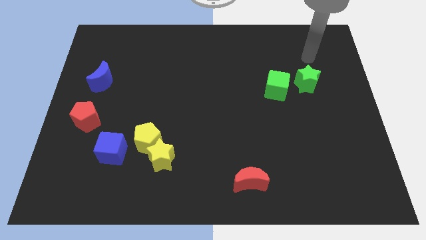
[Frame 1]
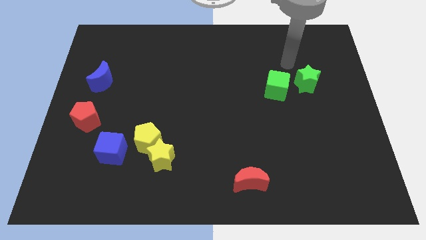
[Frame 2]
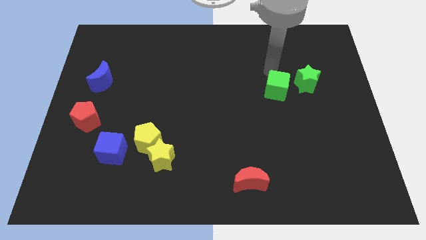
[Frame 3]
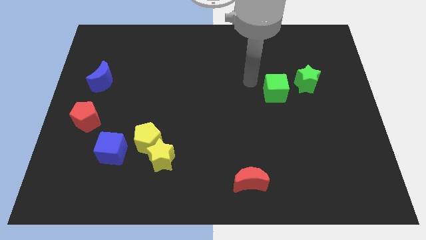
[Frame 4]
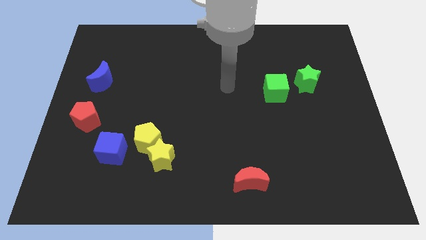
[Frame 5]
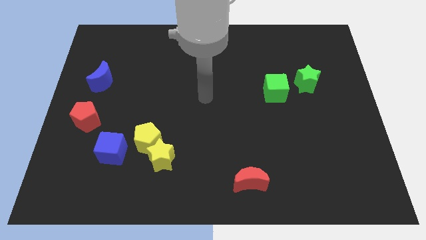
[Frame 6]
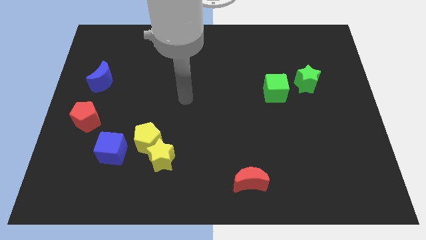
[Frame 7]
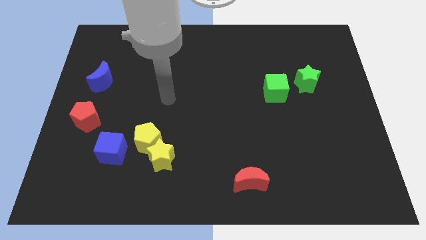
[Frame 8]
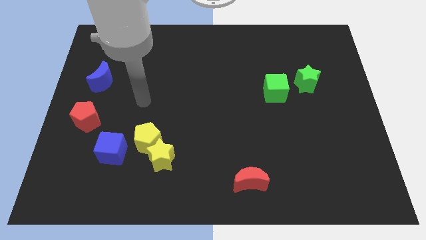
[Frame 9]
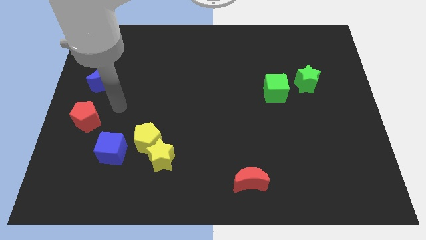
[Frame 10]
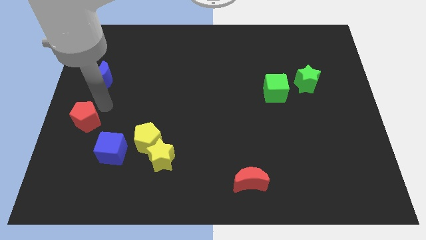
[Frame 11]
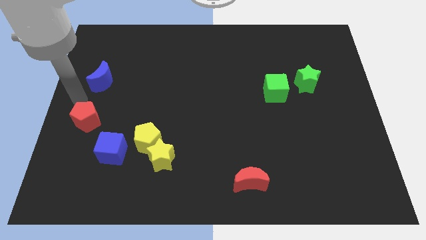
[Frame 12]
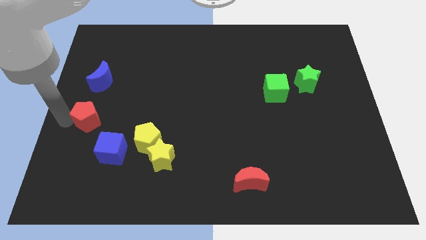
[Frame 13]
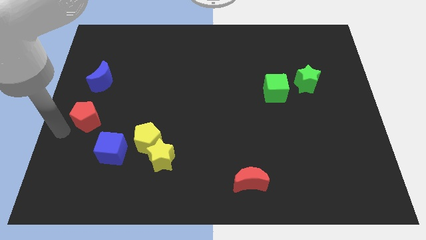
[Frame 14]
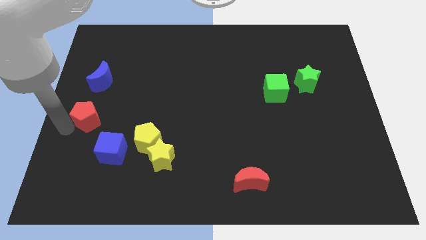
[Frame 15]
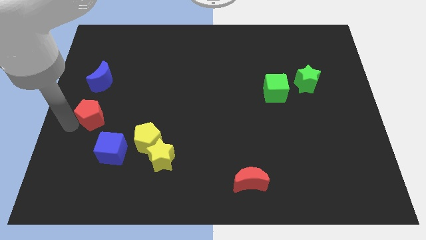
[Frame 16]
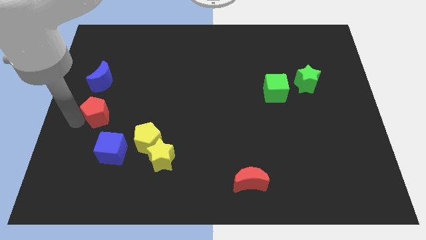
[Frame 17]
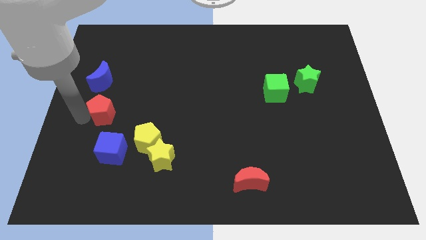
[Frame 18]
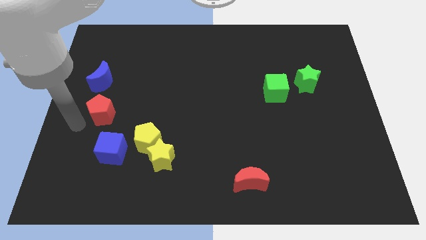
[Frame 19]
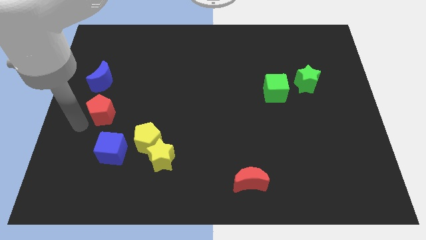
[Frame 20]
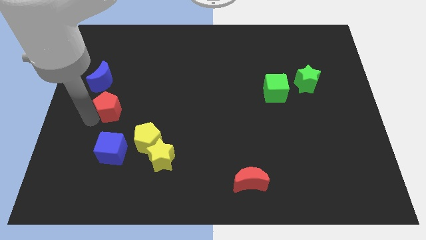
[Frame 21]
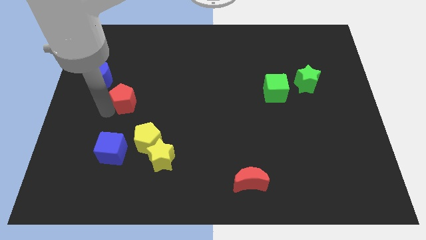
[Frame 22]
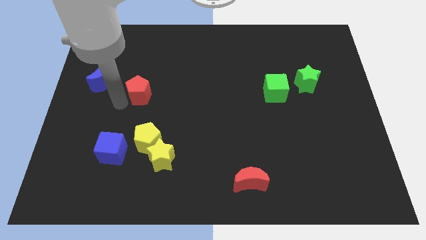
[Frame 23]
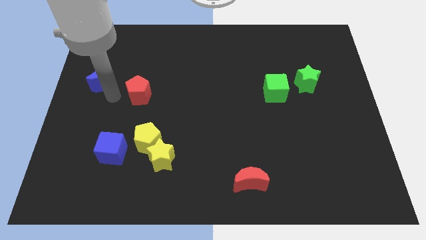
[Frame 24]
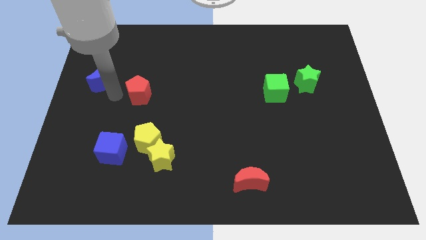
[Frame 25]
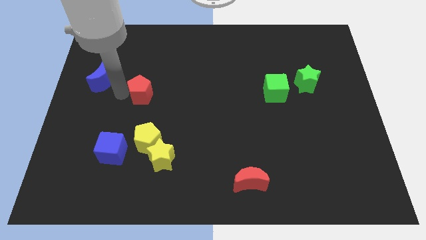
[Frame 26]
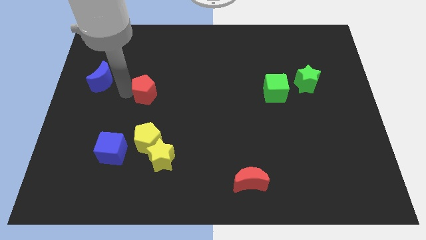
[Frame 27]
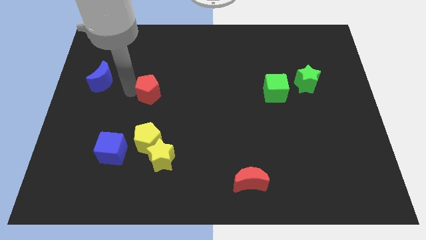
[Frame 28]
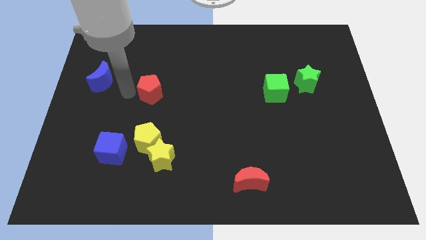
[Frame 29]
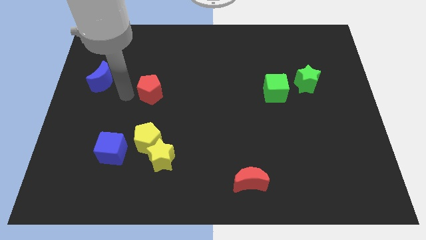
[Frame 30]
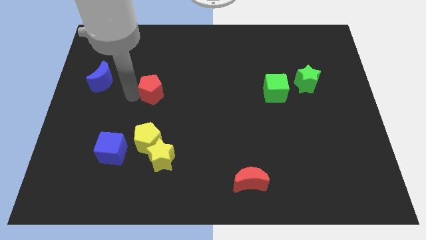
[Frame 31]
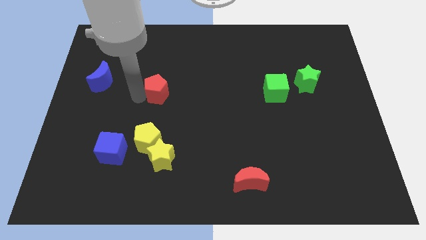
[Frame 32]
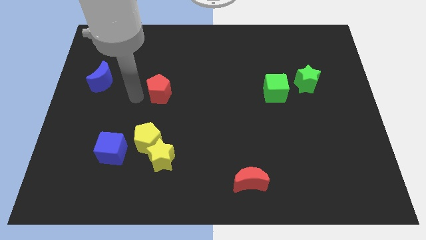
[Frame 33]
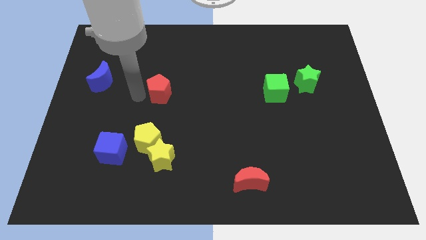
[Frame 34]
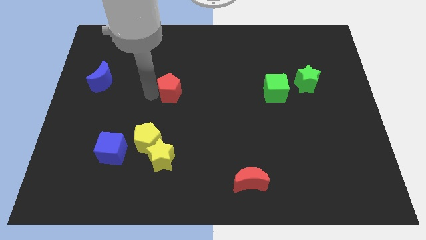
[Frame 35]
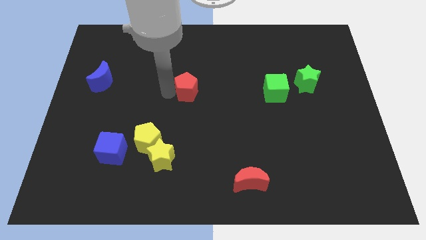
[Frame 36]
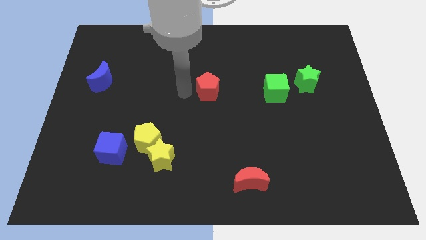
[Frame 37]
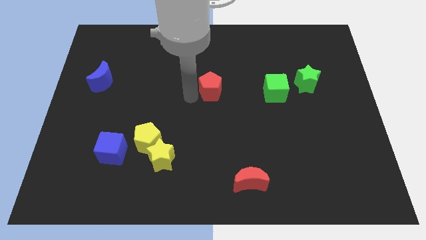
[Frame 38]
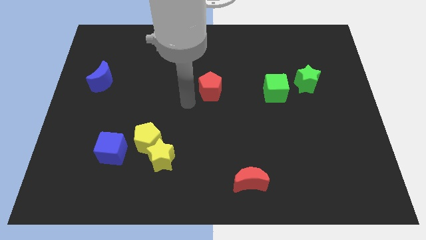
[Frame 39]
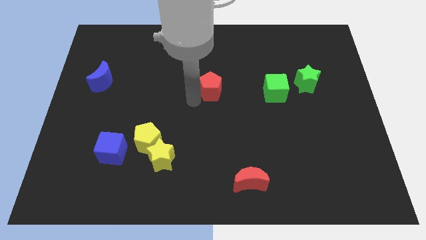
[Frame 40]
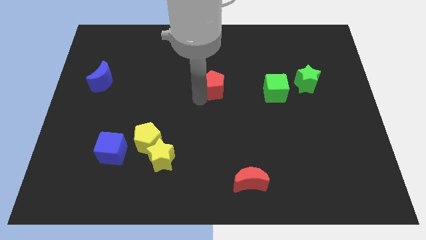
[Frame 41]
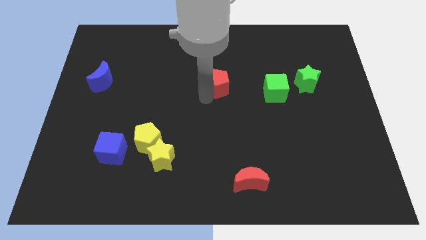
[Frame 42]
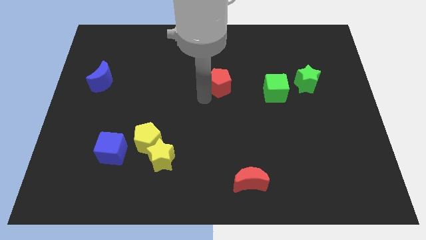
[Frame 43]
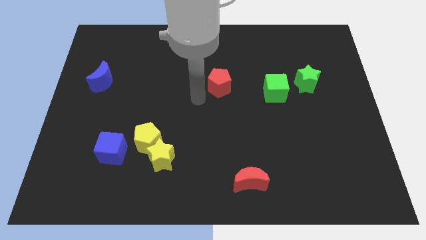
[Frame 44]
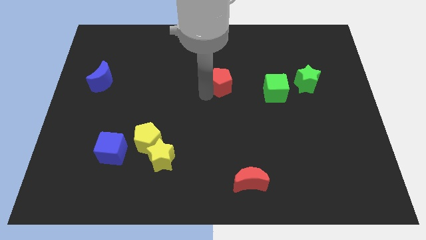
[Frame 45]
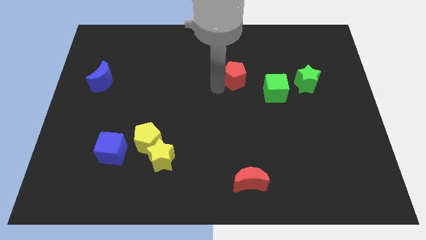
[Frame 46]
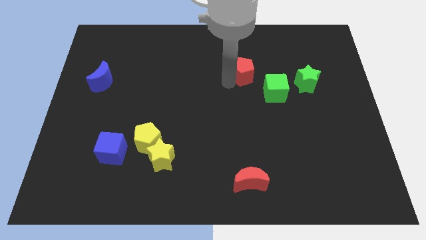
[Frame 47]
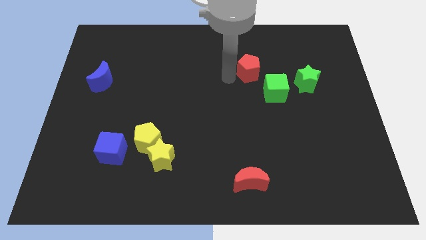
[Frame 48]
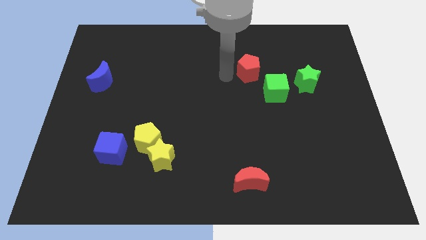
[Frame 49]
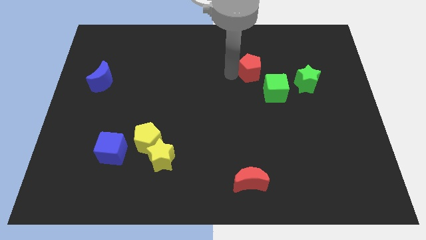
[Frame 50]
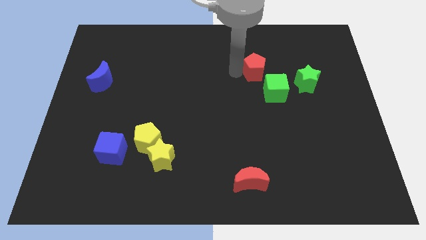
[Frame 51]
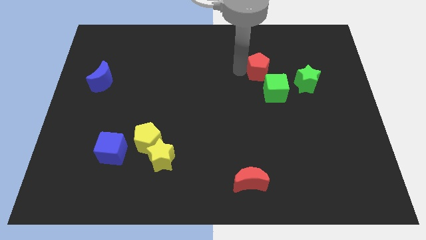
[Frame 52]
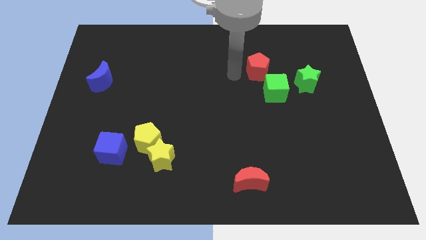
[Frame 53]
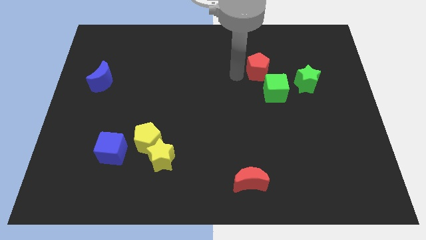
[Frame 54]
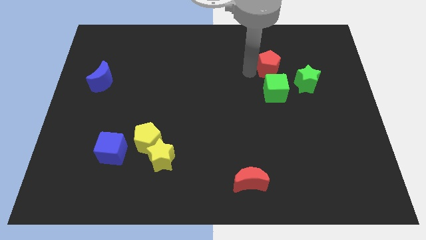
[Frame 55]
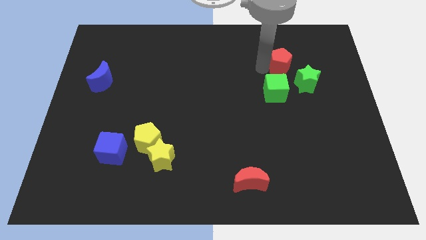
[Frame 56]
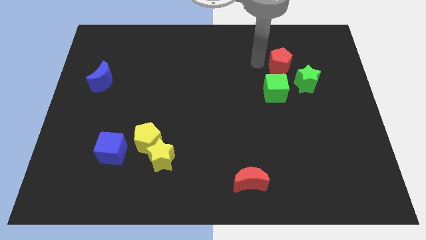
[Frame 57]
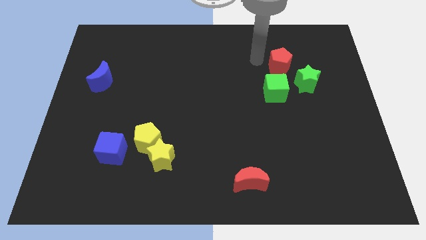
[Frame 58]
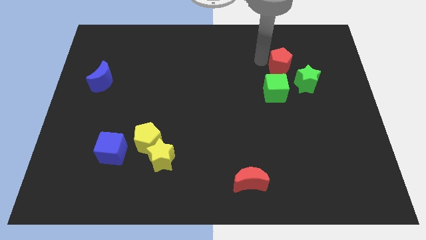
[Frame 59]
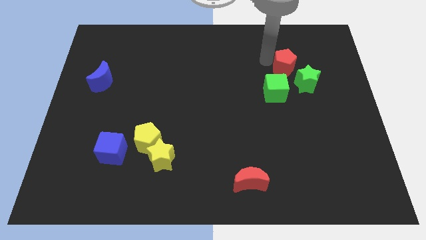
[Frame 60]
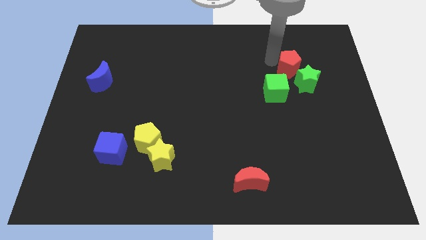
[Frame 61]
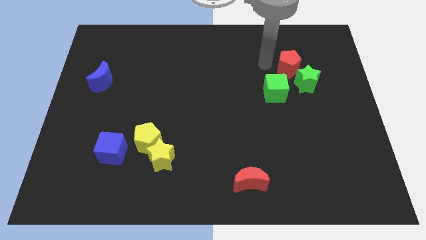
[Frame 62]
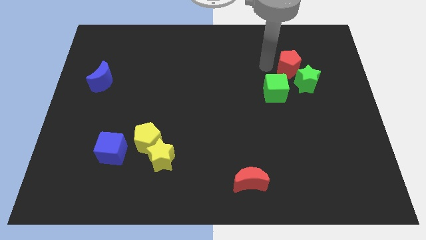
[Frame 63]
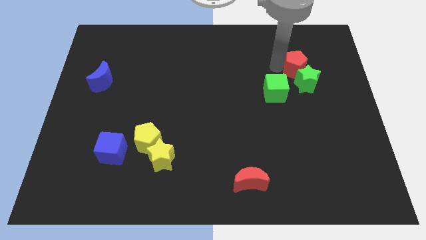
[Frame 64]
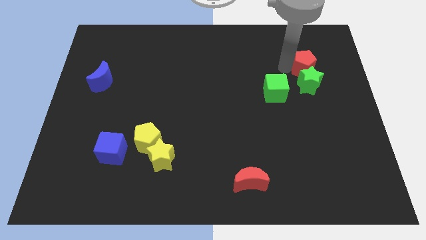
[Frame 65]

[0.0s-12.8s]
slide the red pentagon diagonally up and to the right of the green star

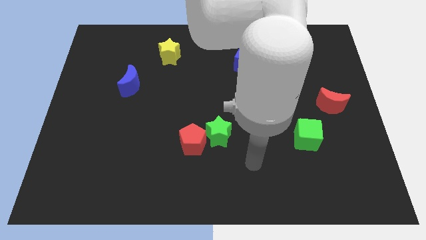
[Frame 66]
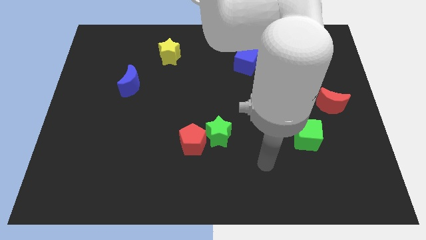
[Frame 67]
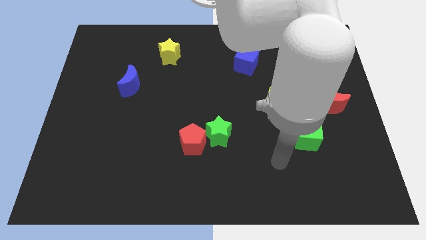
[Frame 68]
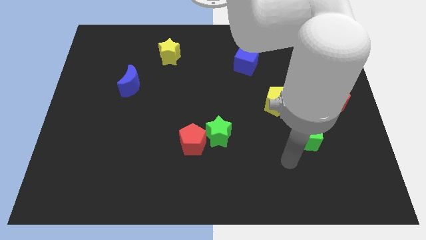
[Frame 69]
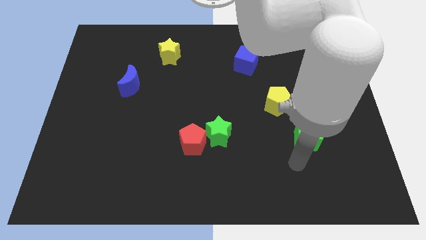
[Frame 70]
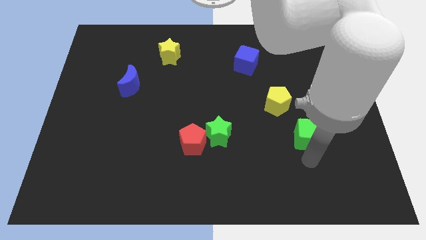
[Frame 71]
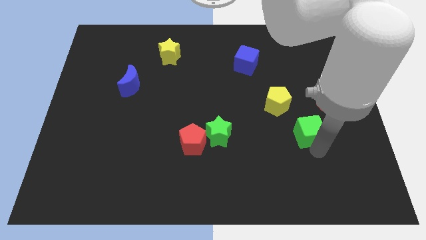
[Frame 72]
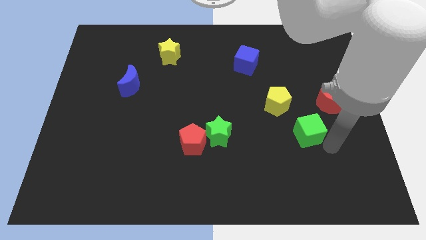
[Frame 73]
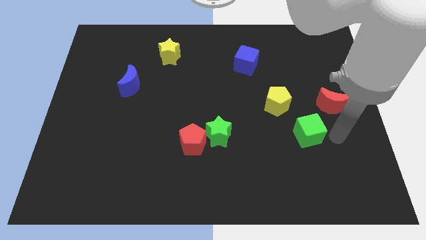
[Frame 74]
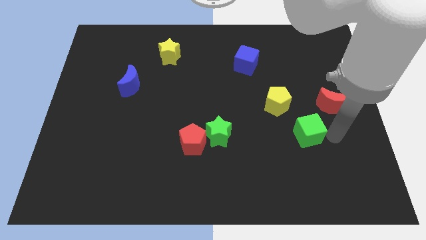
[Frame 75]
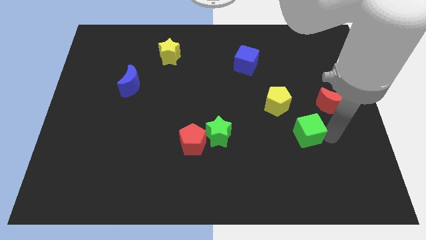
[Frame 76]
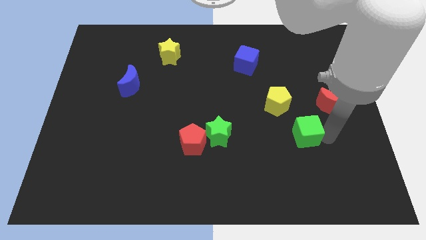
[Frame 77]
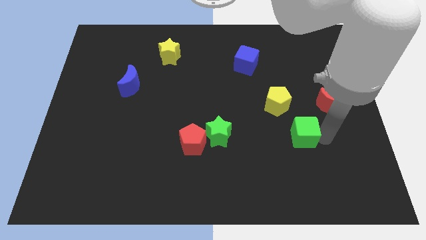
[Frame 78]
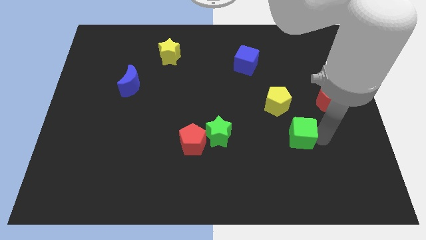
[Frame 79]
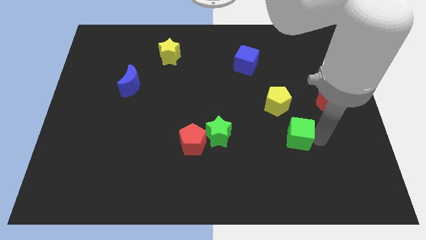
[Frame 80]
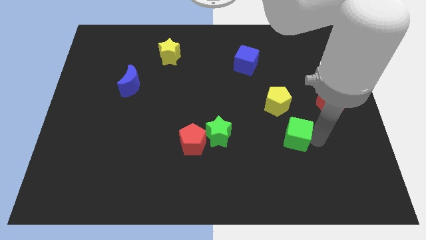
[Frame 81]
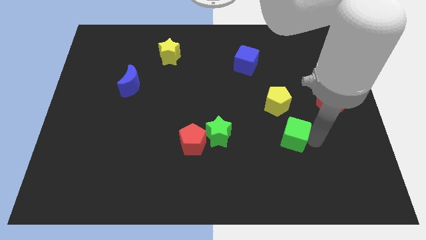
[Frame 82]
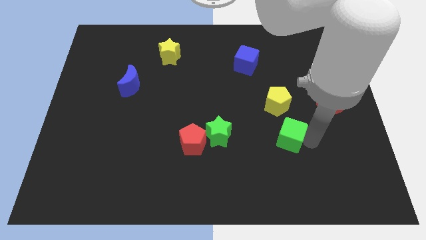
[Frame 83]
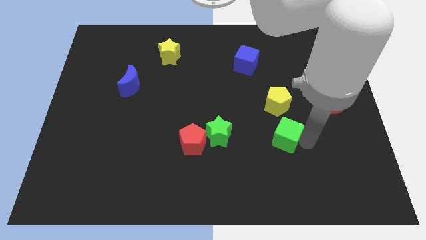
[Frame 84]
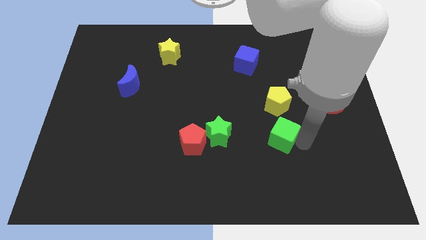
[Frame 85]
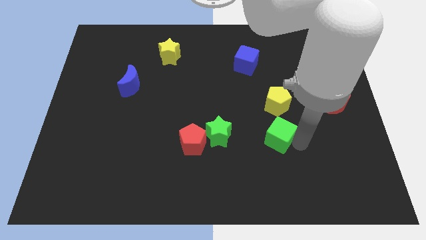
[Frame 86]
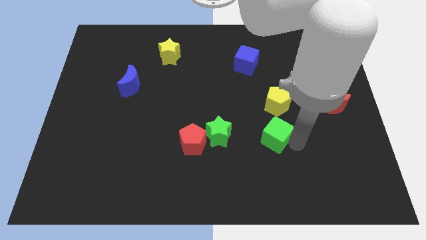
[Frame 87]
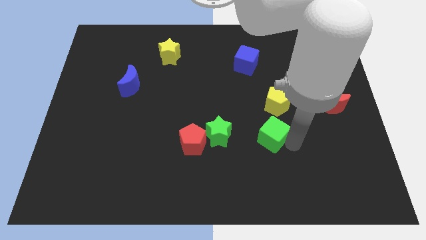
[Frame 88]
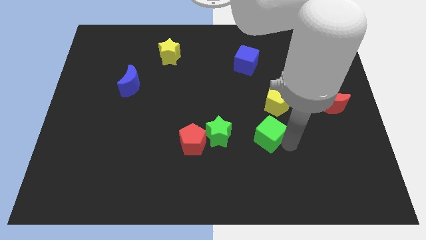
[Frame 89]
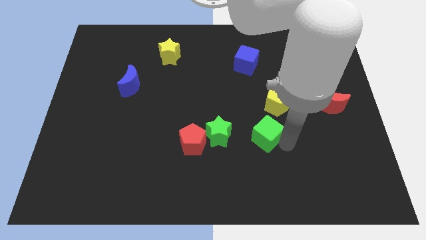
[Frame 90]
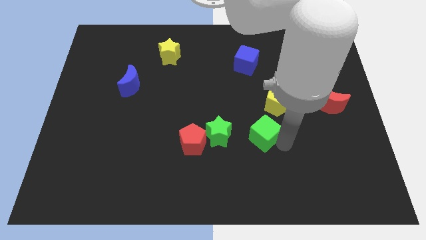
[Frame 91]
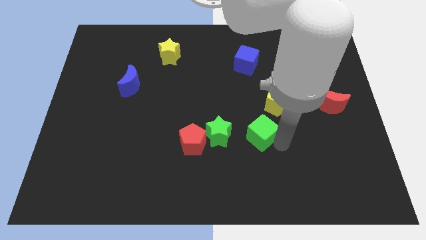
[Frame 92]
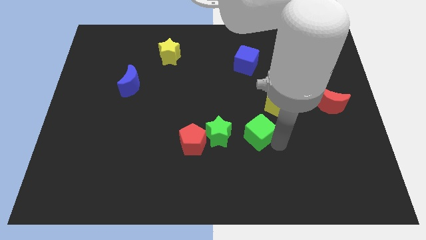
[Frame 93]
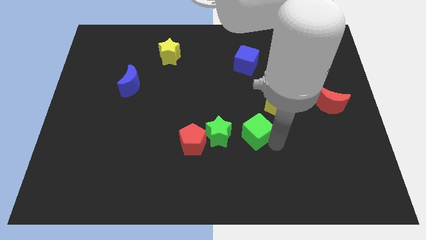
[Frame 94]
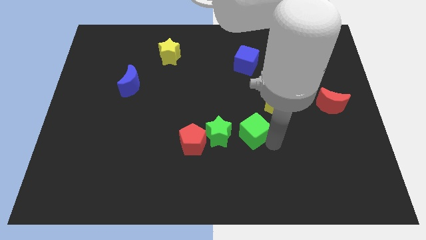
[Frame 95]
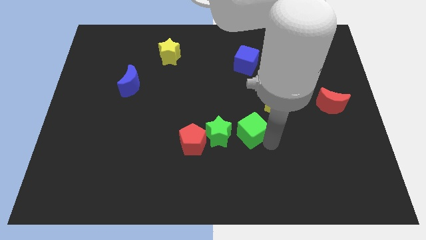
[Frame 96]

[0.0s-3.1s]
push the green cube to the top right of the green star
